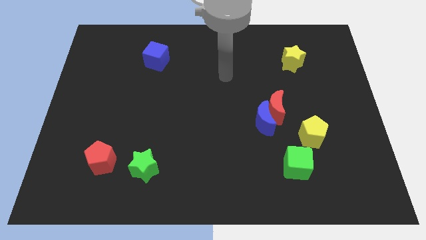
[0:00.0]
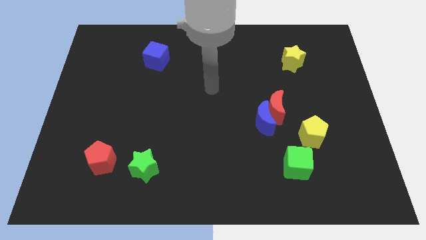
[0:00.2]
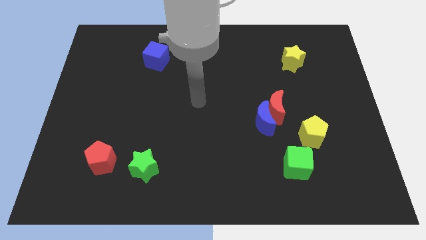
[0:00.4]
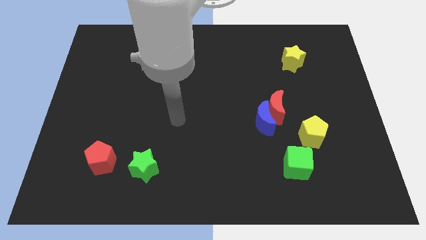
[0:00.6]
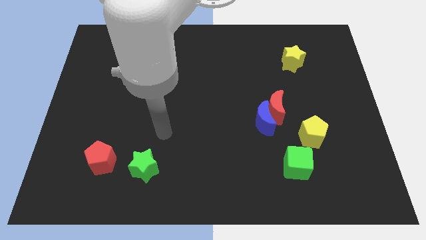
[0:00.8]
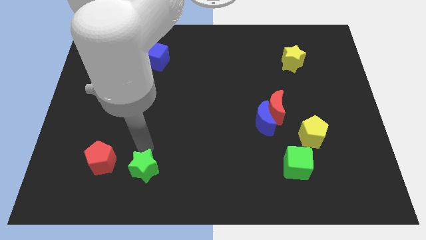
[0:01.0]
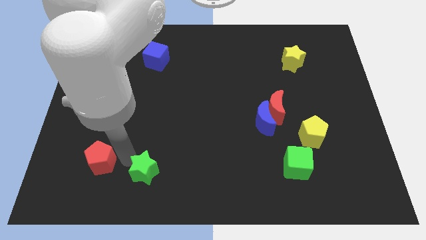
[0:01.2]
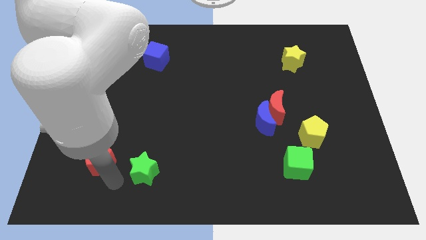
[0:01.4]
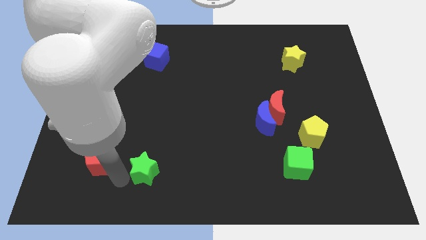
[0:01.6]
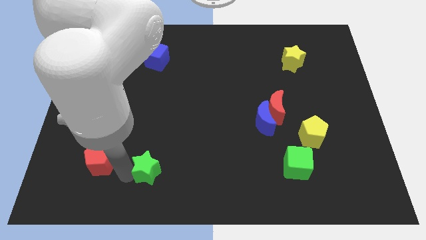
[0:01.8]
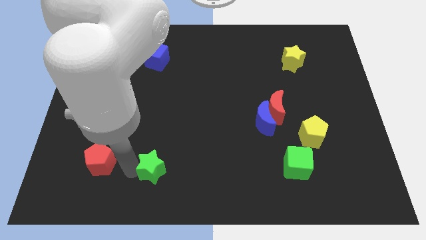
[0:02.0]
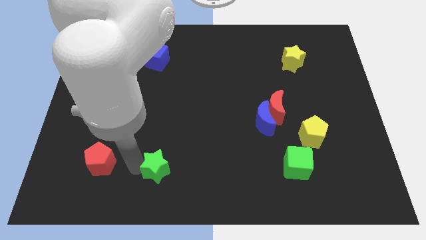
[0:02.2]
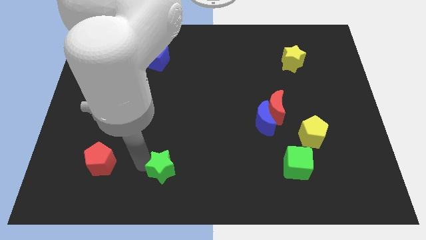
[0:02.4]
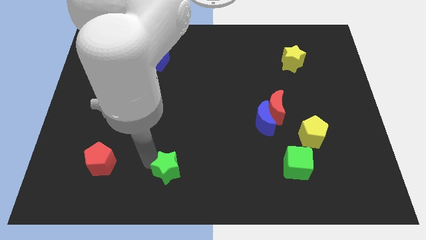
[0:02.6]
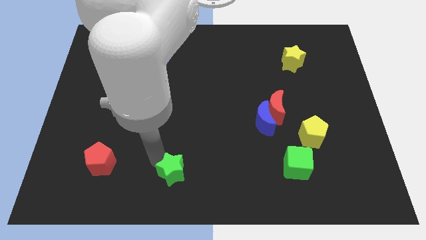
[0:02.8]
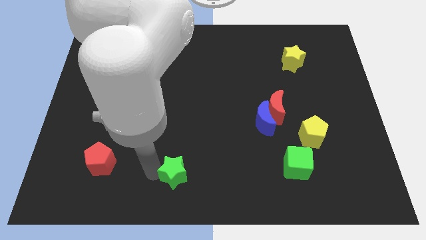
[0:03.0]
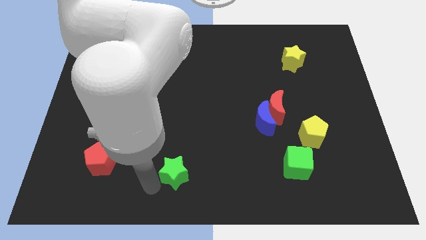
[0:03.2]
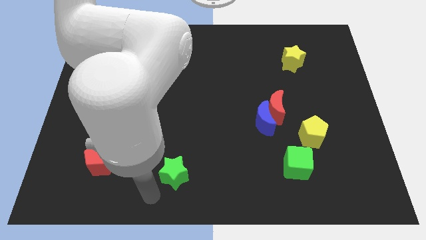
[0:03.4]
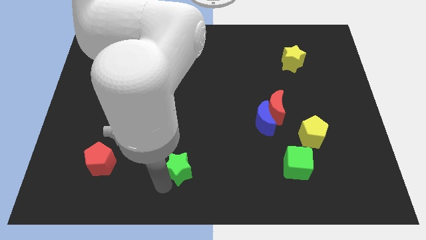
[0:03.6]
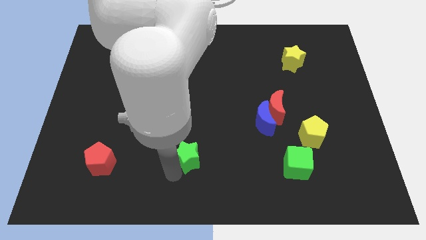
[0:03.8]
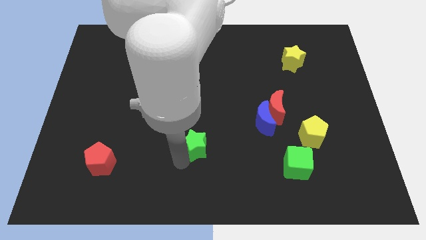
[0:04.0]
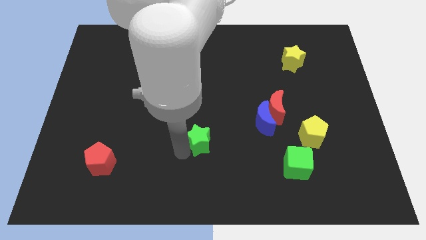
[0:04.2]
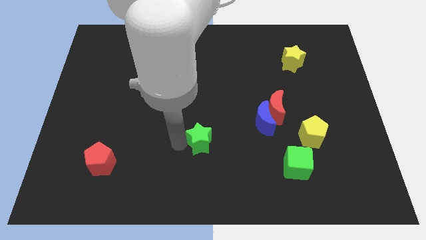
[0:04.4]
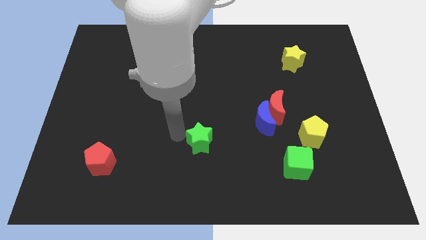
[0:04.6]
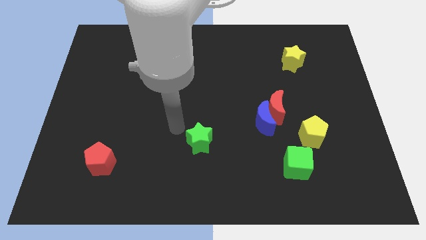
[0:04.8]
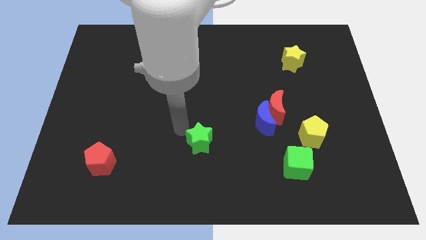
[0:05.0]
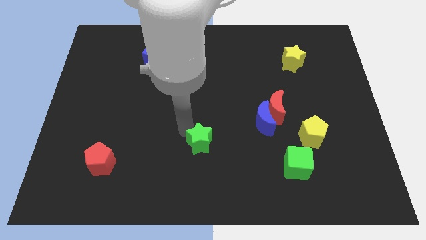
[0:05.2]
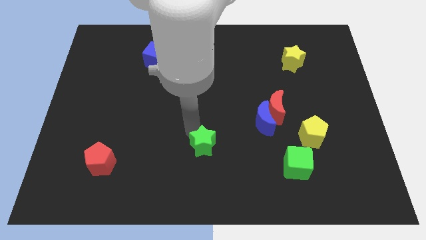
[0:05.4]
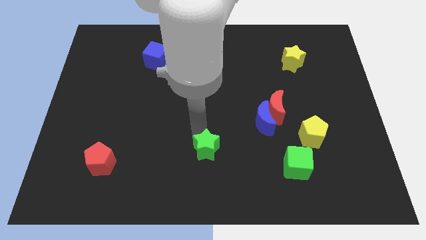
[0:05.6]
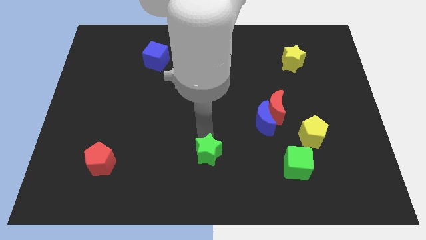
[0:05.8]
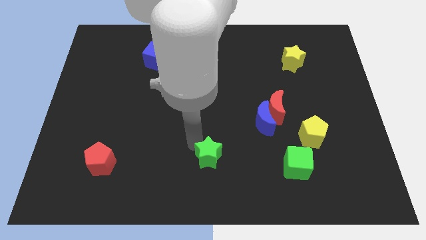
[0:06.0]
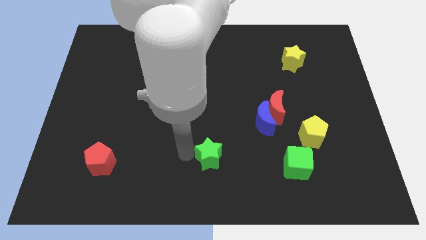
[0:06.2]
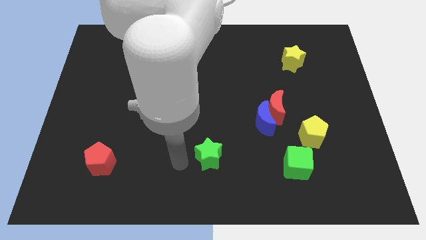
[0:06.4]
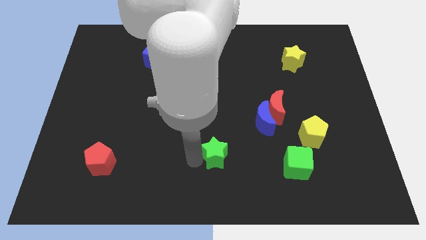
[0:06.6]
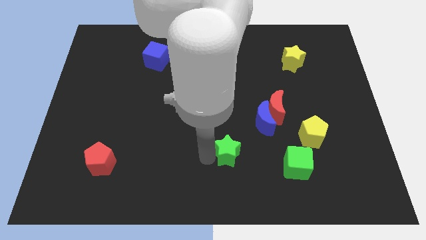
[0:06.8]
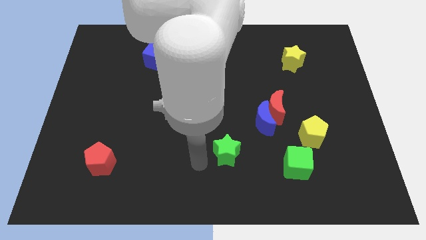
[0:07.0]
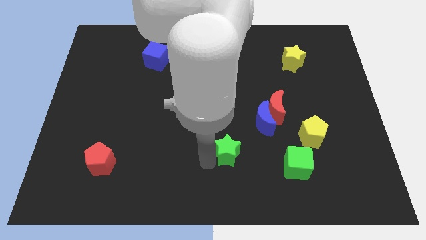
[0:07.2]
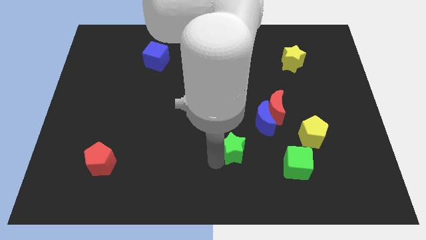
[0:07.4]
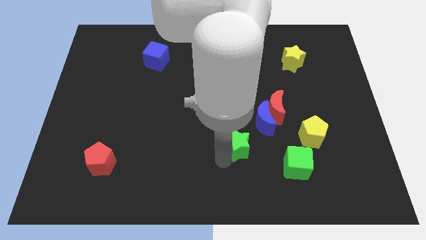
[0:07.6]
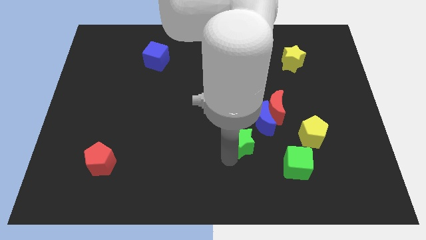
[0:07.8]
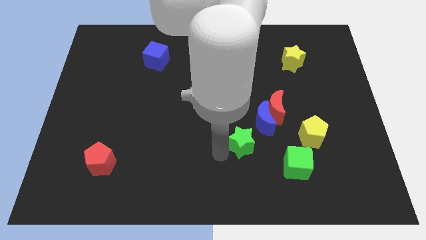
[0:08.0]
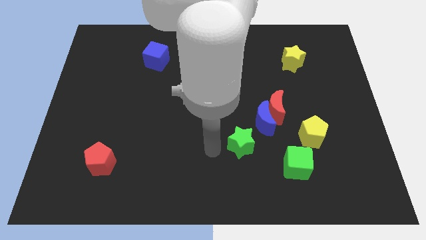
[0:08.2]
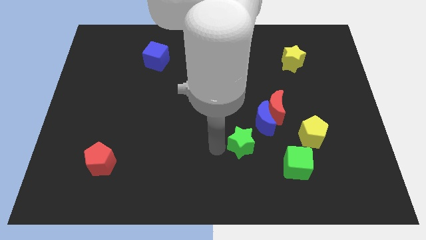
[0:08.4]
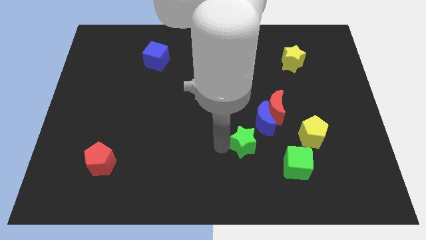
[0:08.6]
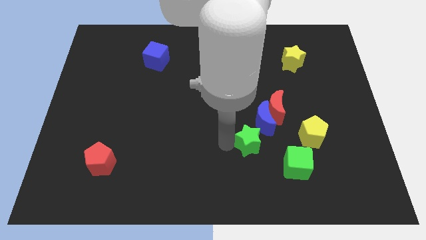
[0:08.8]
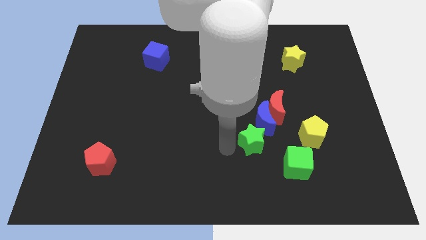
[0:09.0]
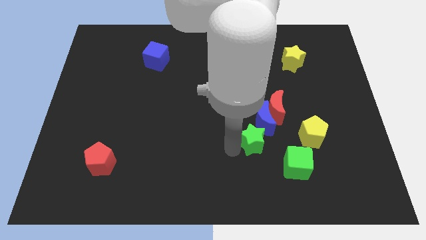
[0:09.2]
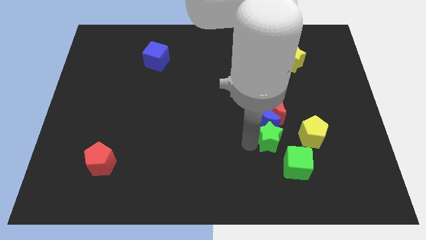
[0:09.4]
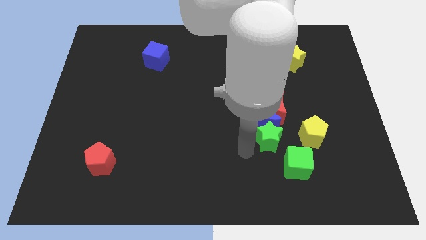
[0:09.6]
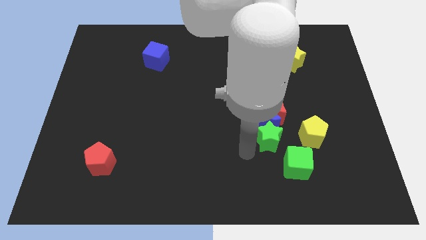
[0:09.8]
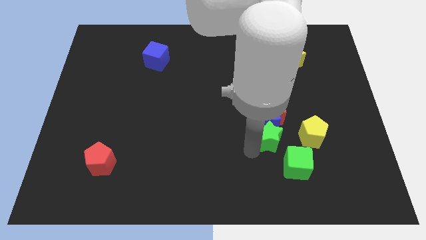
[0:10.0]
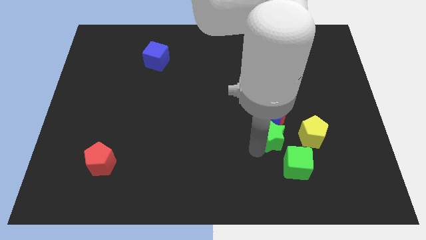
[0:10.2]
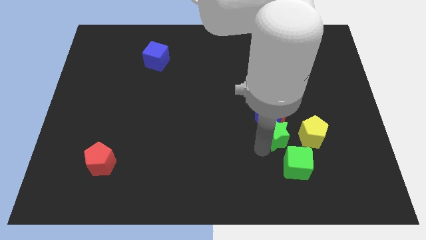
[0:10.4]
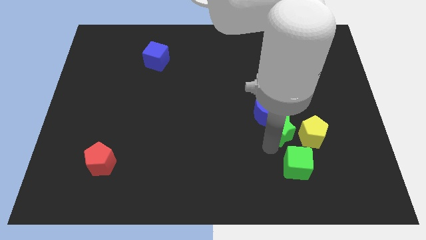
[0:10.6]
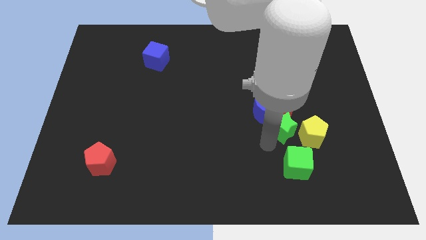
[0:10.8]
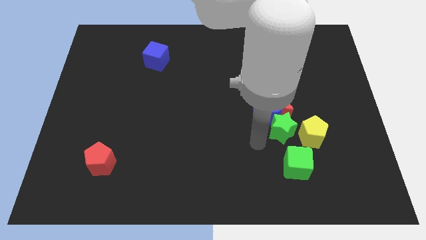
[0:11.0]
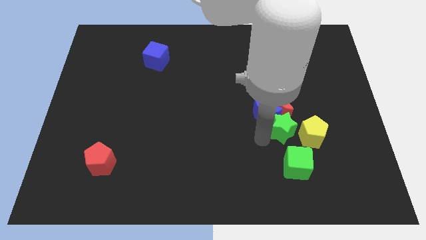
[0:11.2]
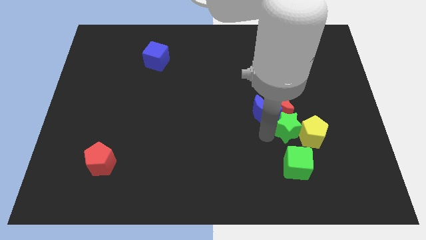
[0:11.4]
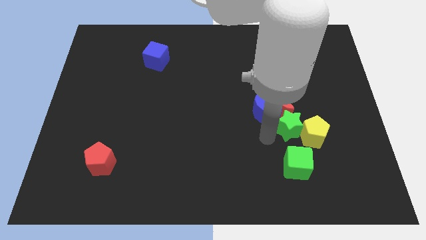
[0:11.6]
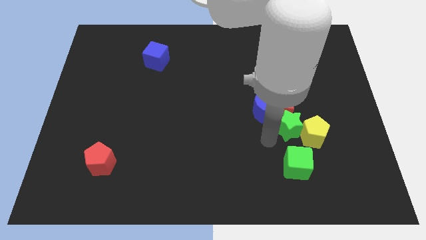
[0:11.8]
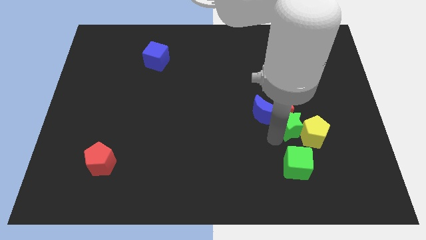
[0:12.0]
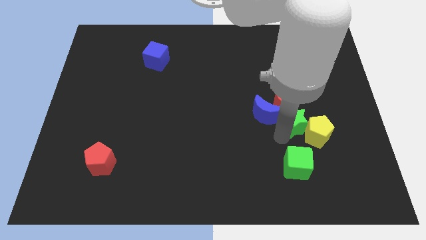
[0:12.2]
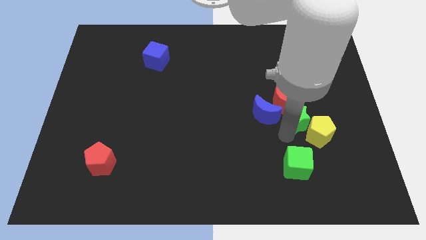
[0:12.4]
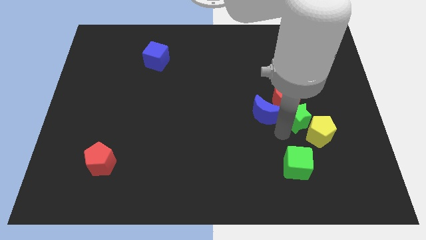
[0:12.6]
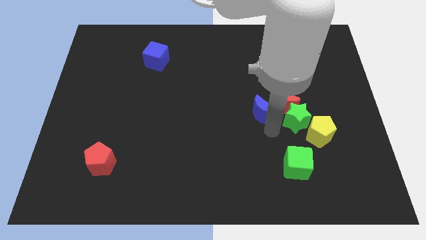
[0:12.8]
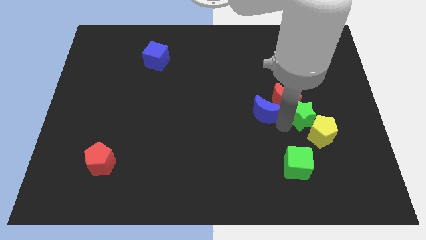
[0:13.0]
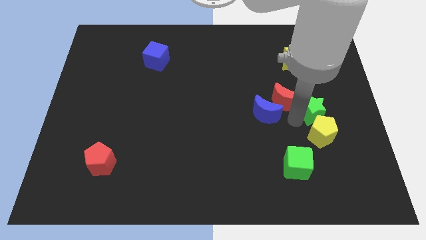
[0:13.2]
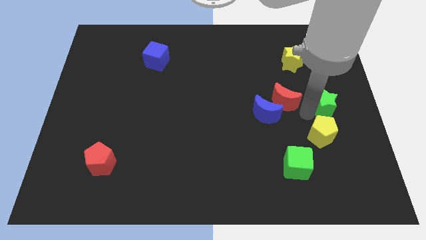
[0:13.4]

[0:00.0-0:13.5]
move the green star to the center right

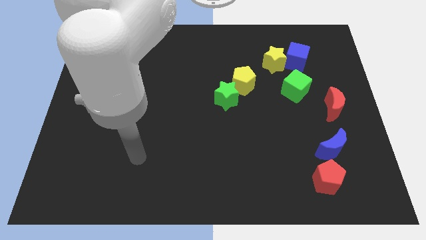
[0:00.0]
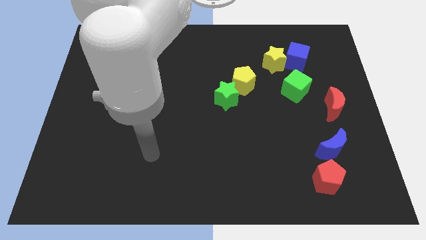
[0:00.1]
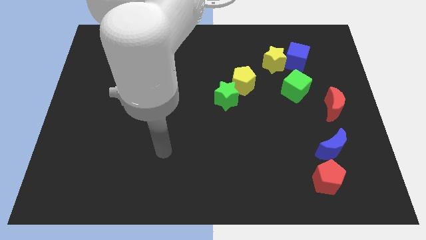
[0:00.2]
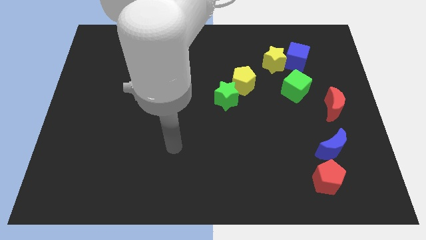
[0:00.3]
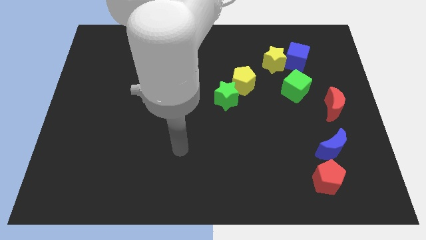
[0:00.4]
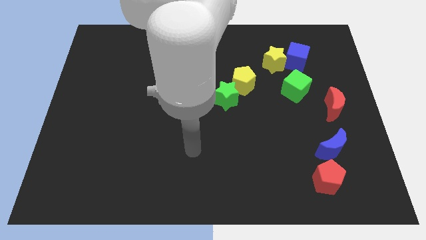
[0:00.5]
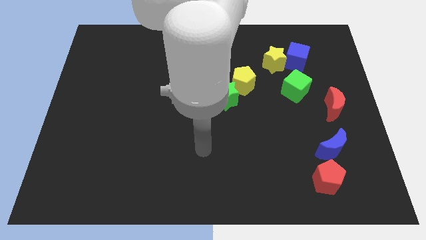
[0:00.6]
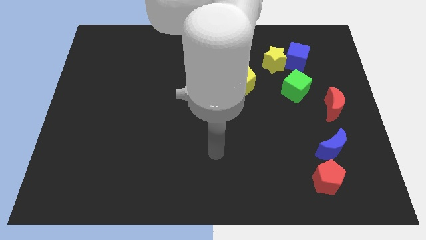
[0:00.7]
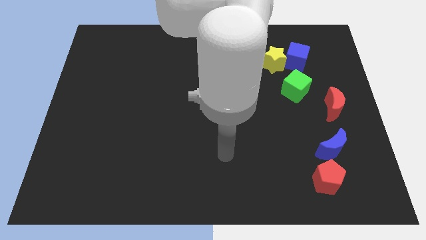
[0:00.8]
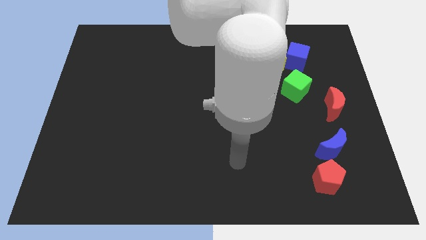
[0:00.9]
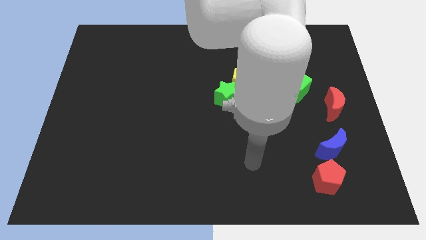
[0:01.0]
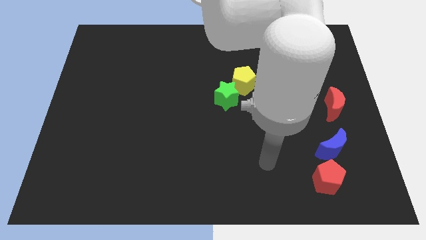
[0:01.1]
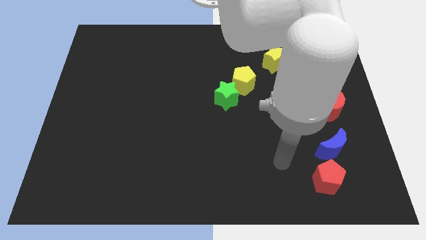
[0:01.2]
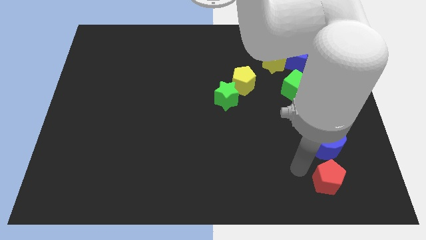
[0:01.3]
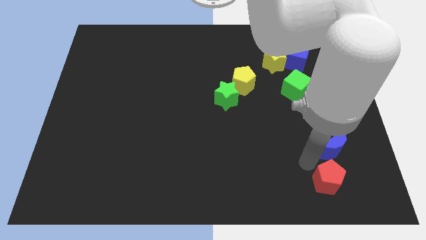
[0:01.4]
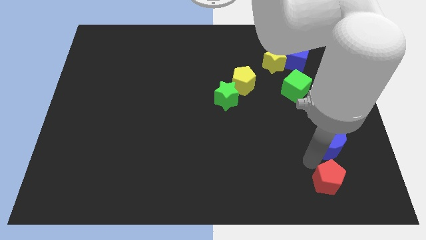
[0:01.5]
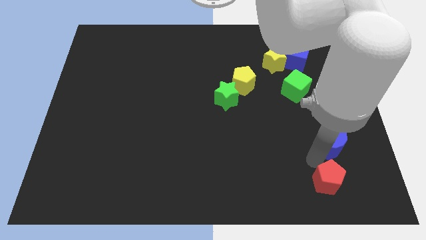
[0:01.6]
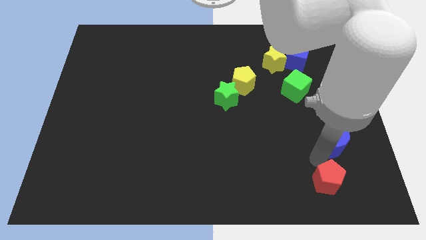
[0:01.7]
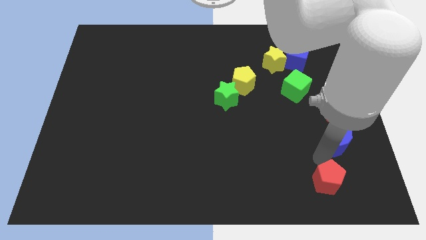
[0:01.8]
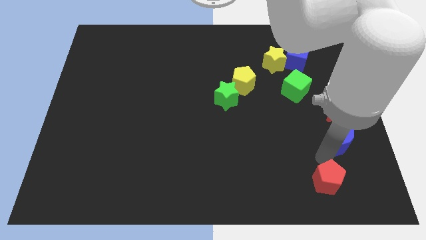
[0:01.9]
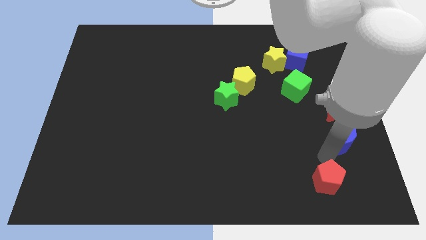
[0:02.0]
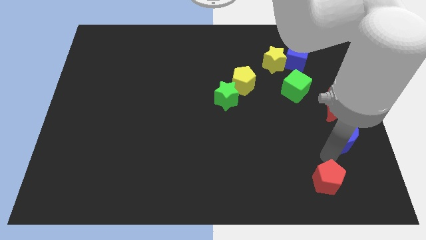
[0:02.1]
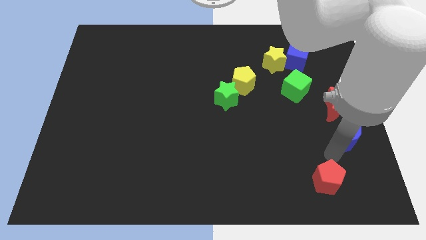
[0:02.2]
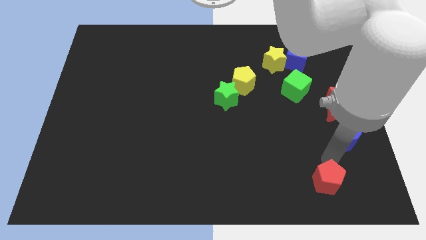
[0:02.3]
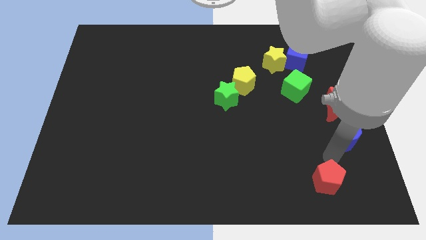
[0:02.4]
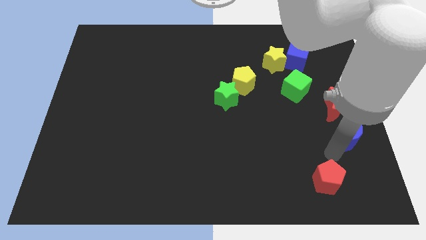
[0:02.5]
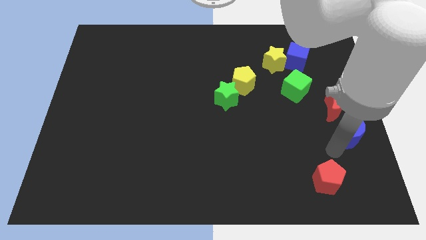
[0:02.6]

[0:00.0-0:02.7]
put the blue moon to the right side
